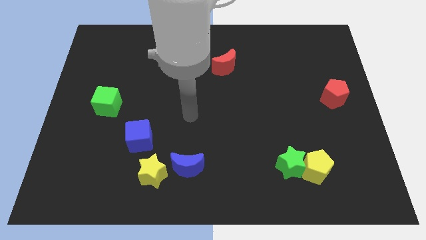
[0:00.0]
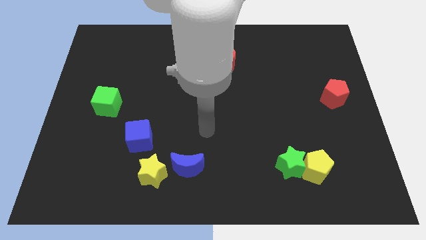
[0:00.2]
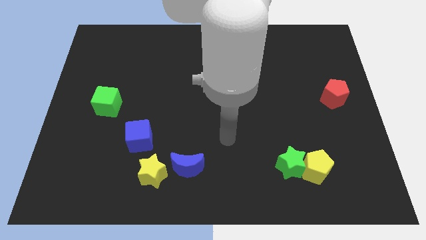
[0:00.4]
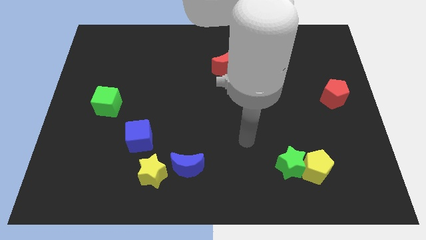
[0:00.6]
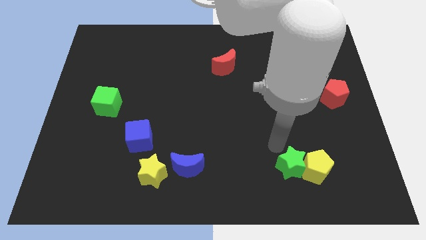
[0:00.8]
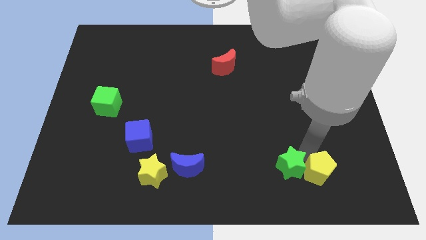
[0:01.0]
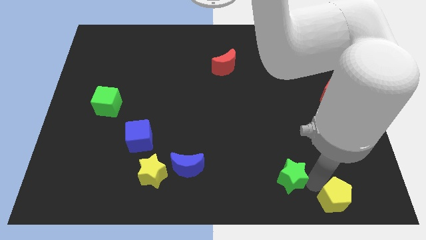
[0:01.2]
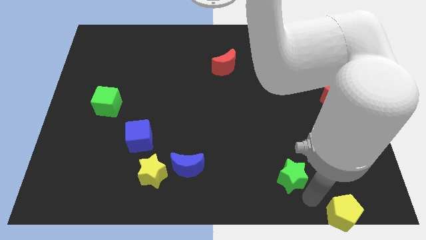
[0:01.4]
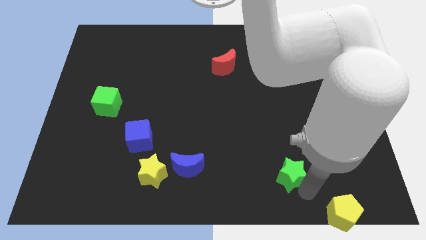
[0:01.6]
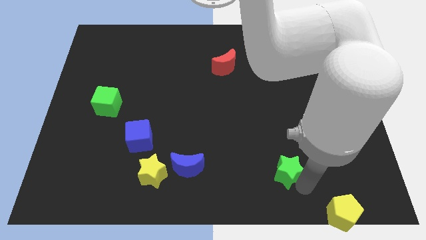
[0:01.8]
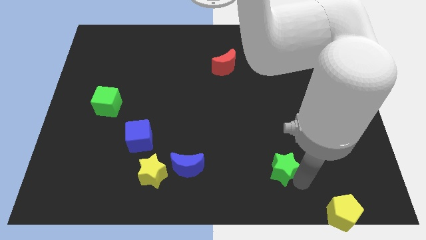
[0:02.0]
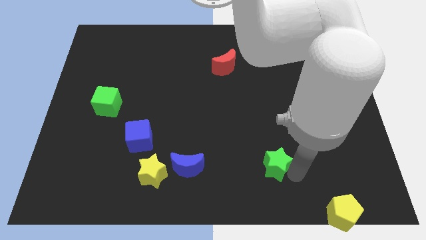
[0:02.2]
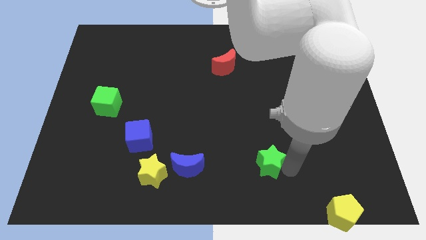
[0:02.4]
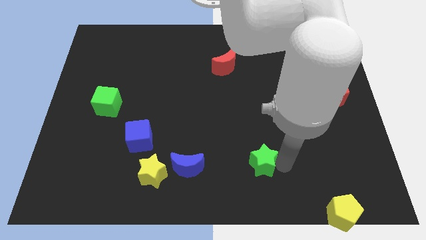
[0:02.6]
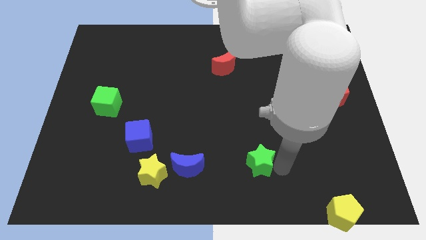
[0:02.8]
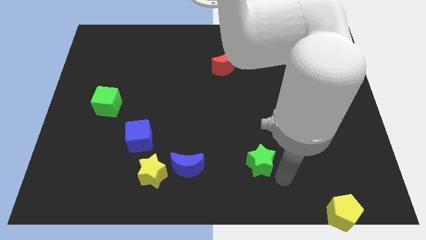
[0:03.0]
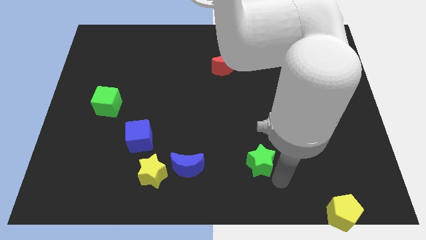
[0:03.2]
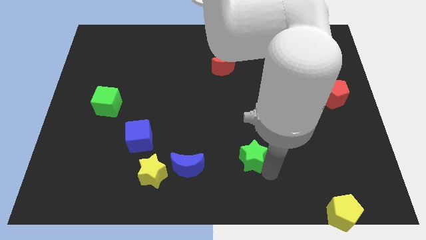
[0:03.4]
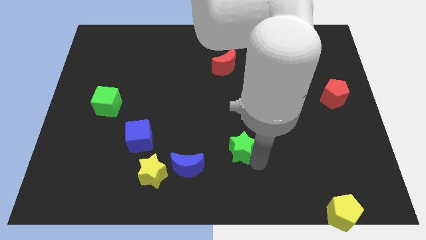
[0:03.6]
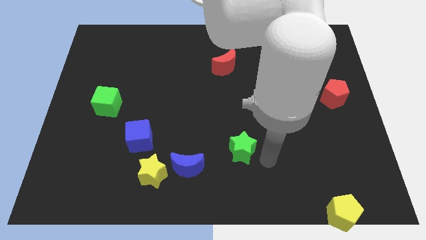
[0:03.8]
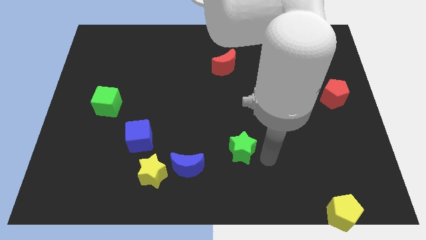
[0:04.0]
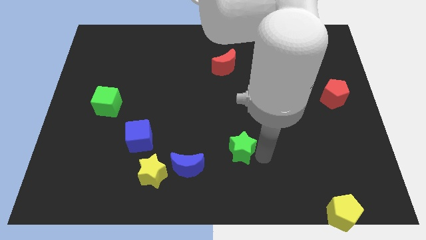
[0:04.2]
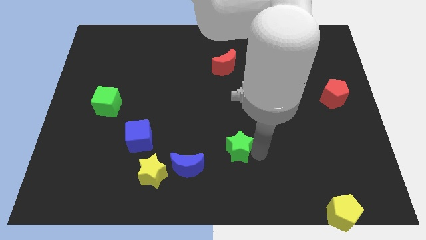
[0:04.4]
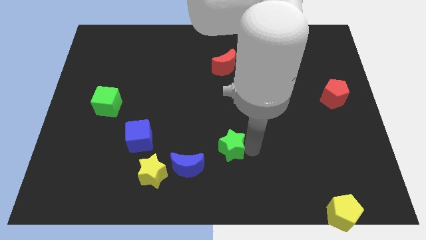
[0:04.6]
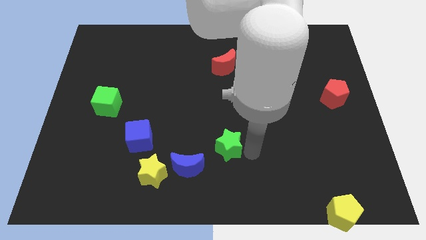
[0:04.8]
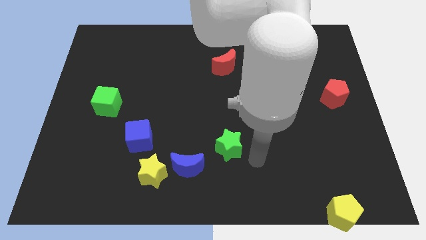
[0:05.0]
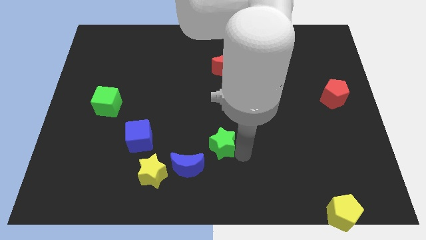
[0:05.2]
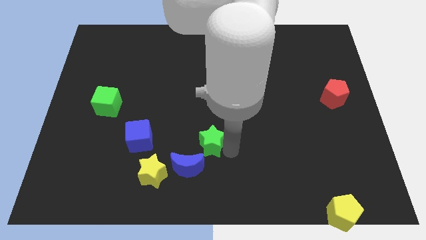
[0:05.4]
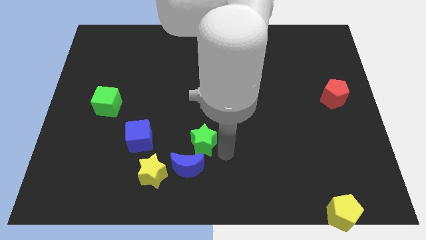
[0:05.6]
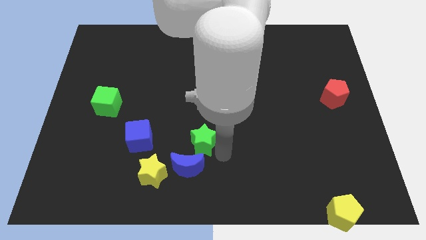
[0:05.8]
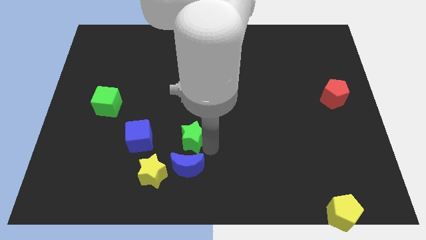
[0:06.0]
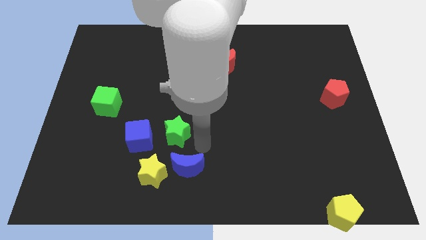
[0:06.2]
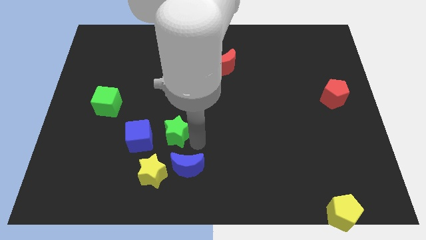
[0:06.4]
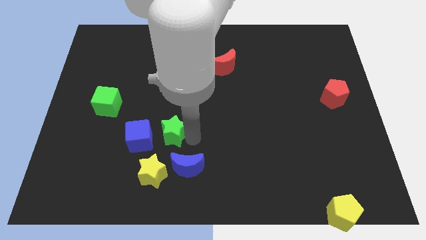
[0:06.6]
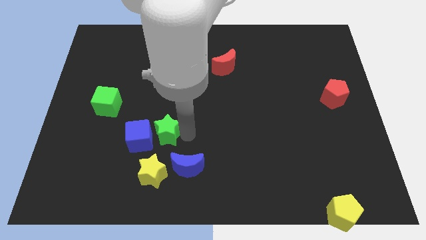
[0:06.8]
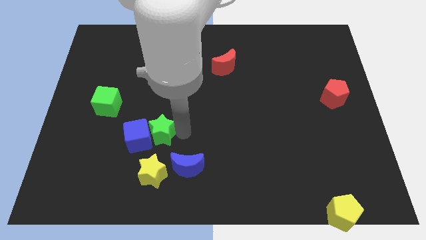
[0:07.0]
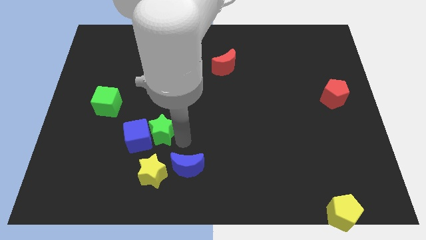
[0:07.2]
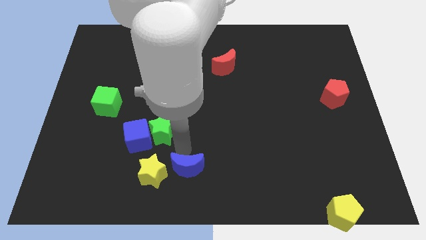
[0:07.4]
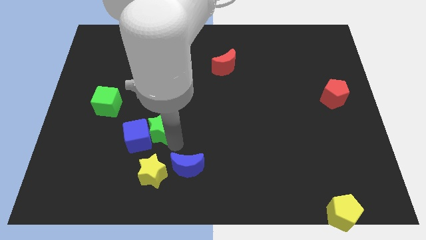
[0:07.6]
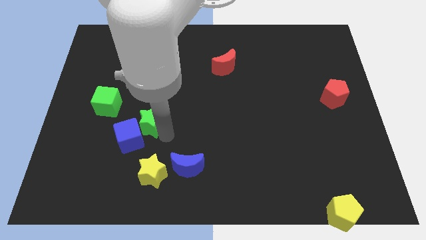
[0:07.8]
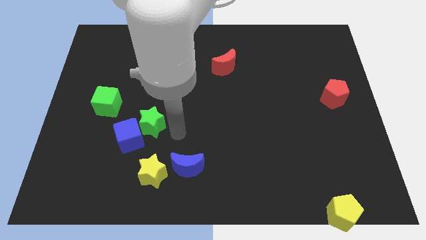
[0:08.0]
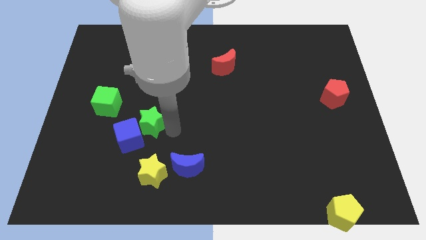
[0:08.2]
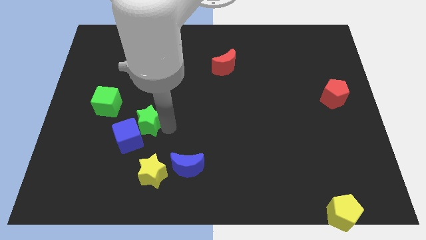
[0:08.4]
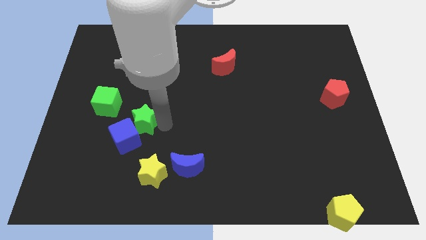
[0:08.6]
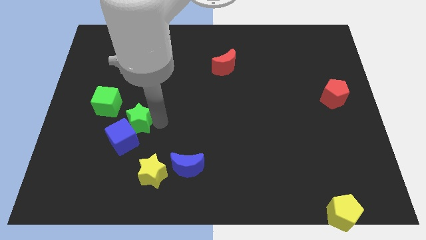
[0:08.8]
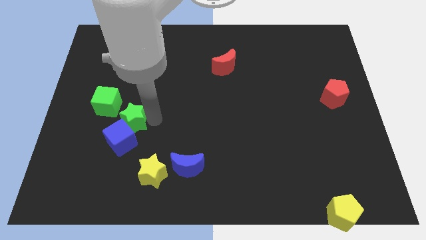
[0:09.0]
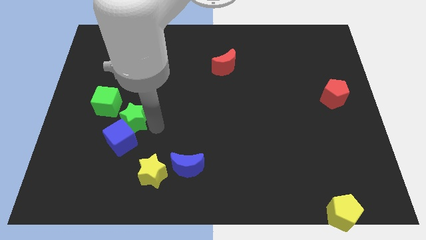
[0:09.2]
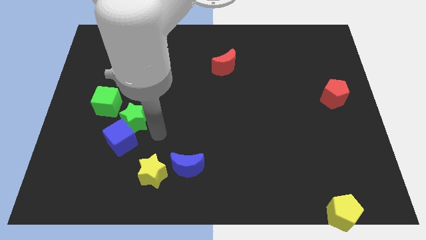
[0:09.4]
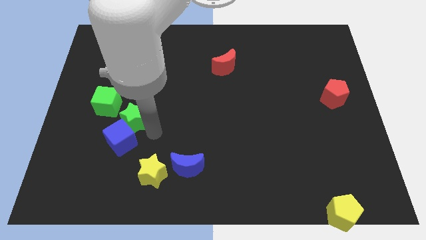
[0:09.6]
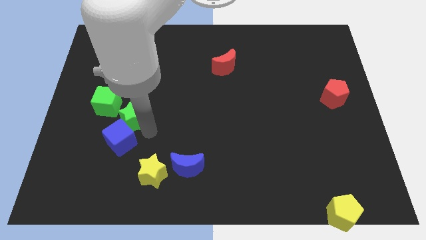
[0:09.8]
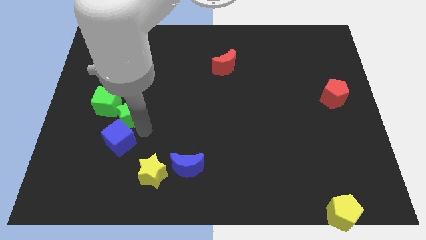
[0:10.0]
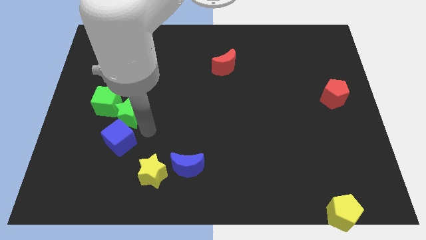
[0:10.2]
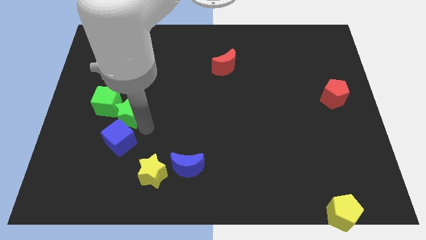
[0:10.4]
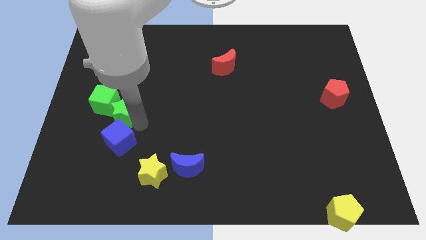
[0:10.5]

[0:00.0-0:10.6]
put the green star next to the green cube

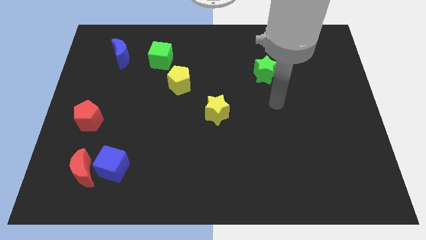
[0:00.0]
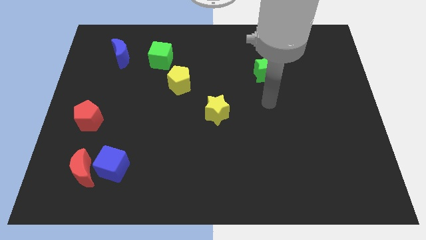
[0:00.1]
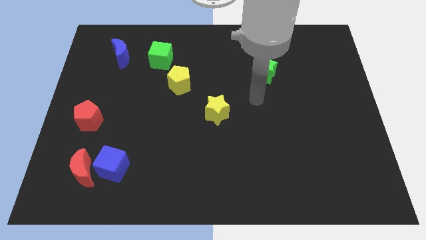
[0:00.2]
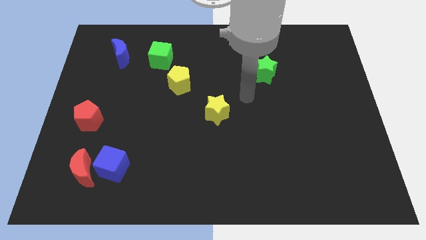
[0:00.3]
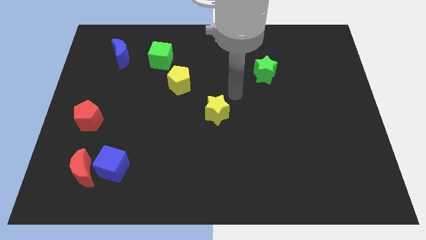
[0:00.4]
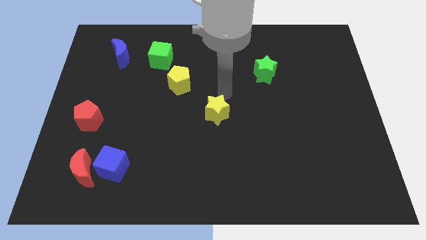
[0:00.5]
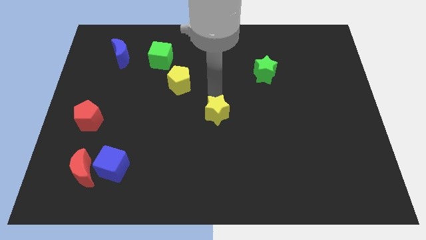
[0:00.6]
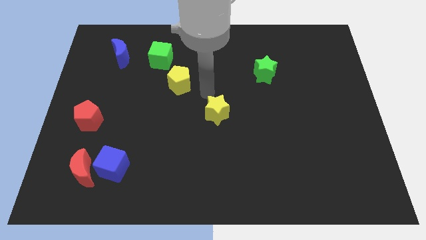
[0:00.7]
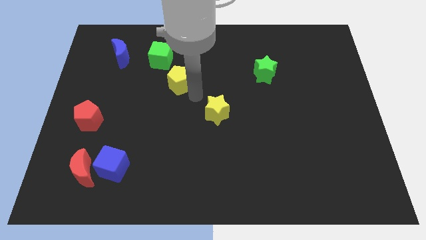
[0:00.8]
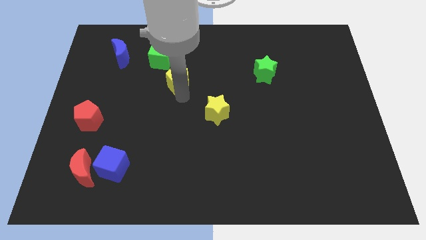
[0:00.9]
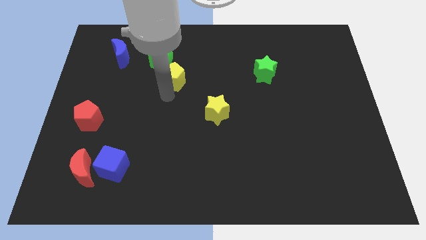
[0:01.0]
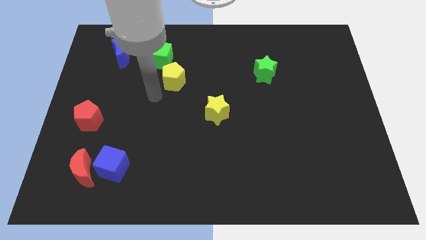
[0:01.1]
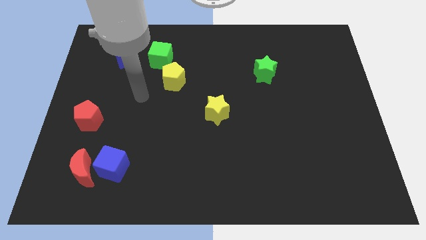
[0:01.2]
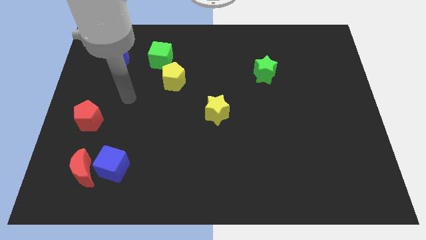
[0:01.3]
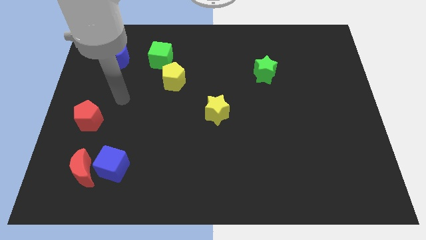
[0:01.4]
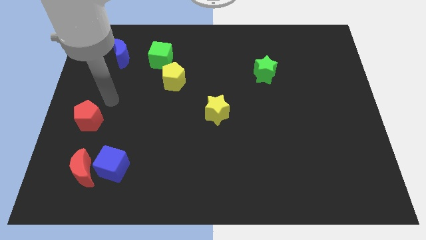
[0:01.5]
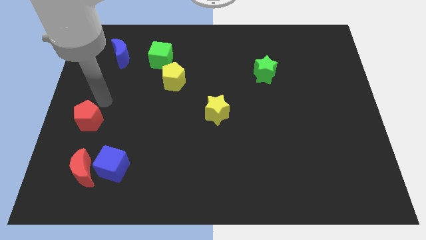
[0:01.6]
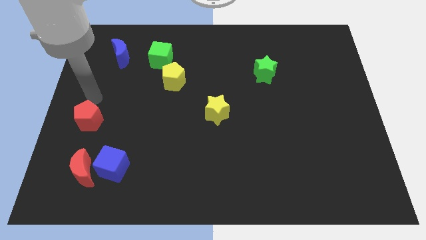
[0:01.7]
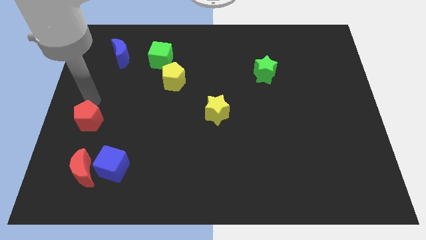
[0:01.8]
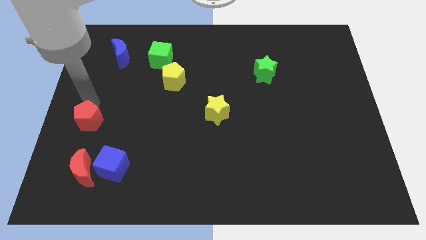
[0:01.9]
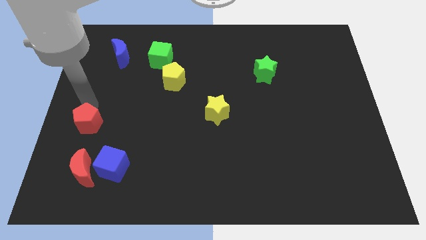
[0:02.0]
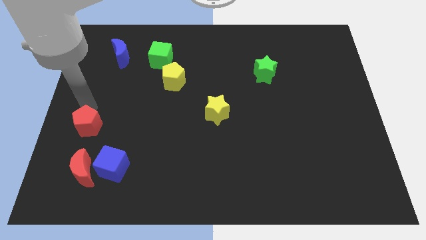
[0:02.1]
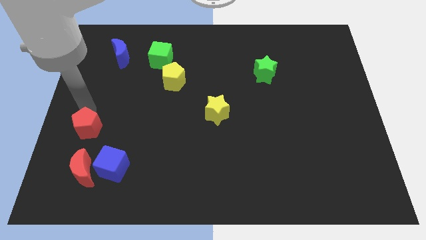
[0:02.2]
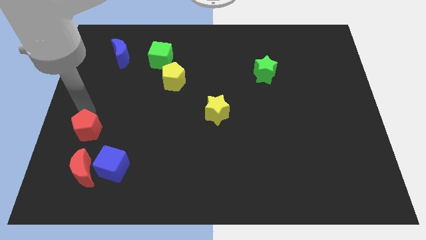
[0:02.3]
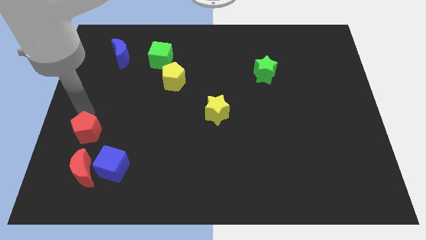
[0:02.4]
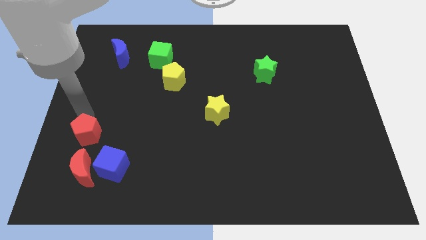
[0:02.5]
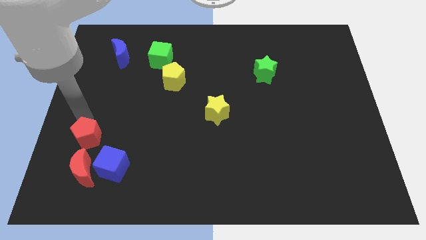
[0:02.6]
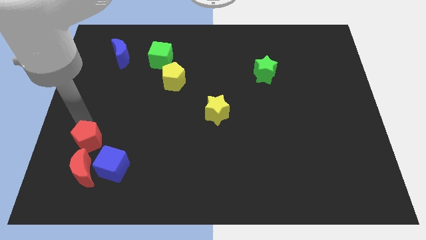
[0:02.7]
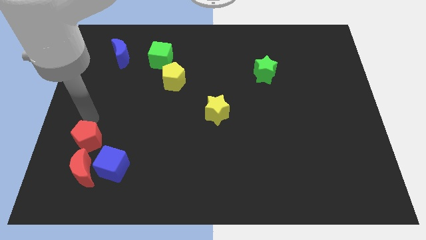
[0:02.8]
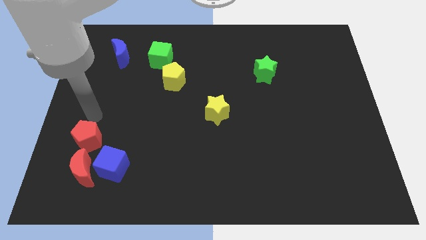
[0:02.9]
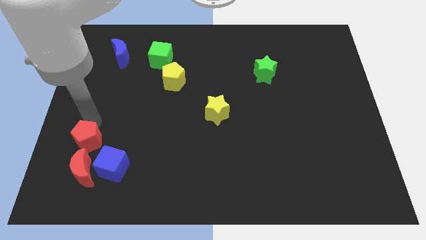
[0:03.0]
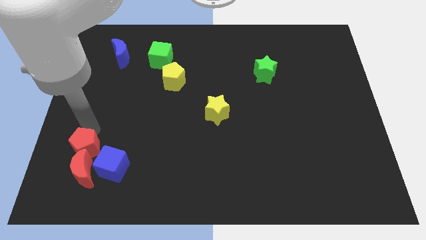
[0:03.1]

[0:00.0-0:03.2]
push the red pentagon towards the red moon
